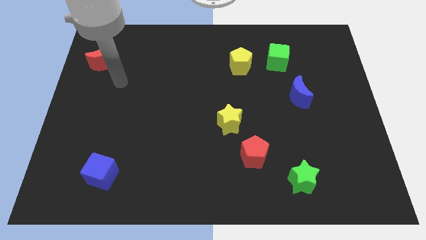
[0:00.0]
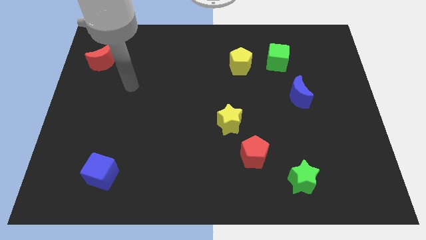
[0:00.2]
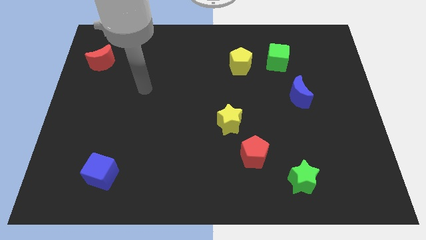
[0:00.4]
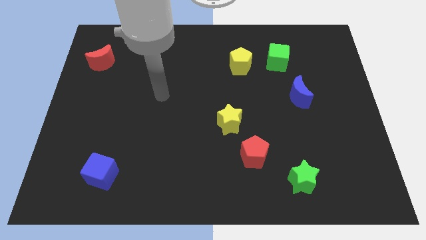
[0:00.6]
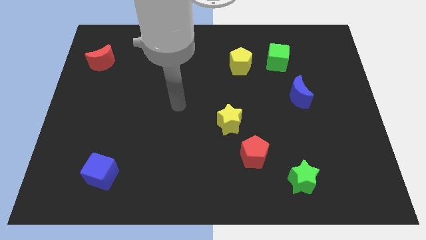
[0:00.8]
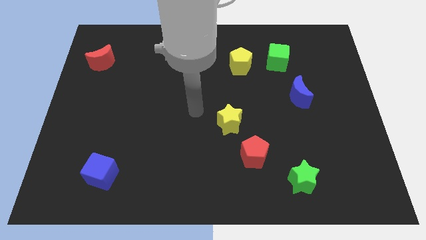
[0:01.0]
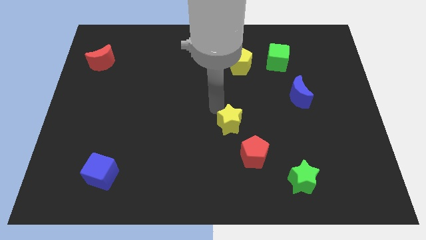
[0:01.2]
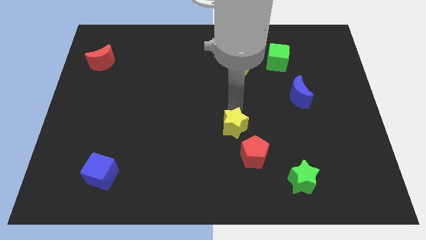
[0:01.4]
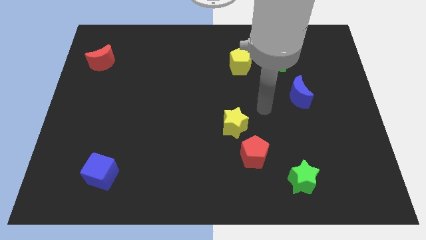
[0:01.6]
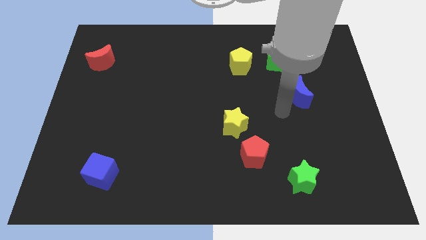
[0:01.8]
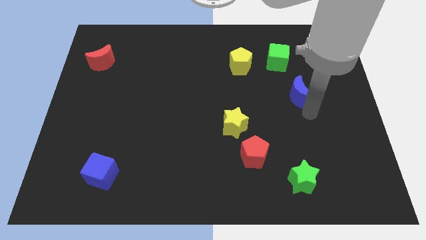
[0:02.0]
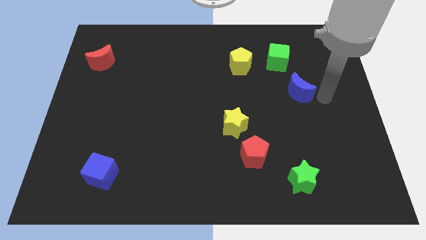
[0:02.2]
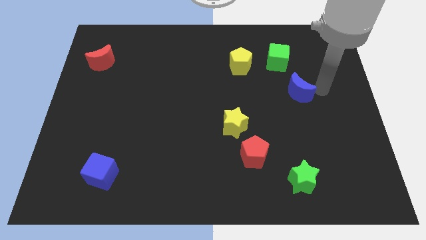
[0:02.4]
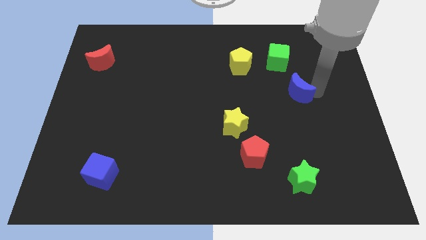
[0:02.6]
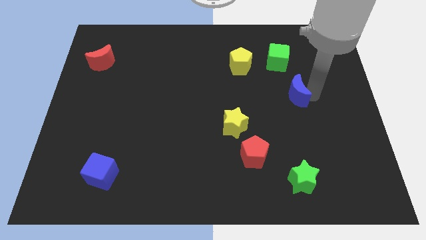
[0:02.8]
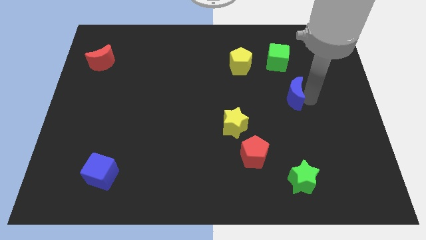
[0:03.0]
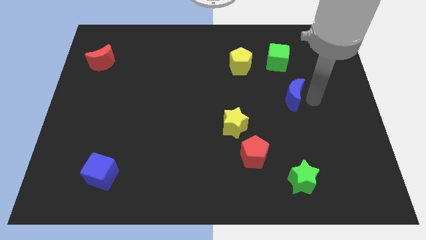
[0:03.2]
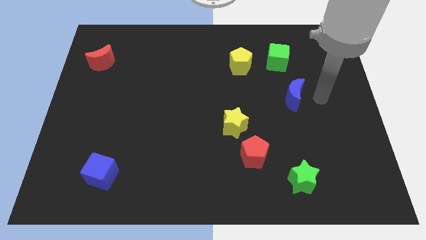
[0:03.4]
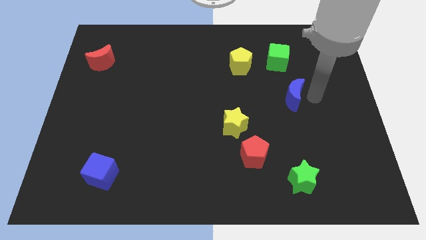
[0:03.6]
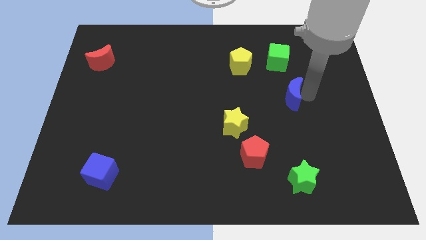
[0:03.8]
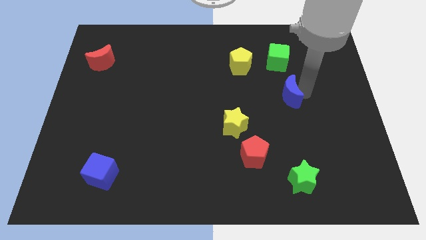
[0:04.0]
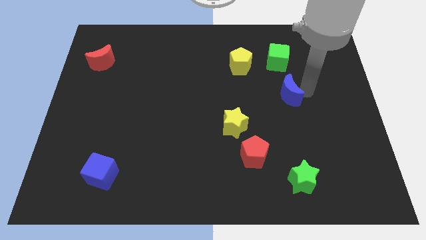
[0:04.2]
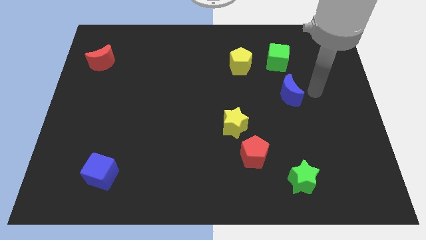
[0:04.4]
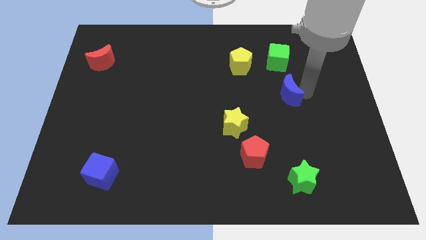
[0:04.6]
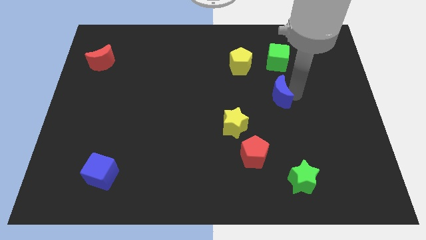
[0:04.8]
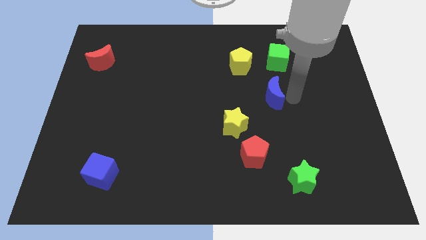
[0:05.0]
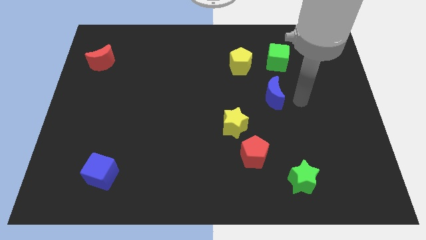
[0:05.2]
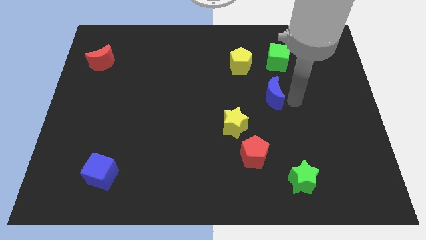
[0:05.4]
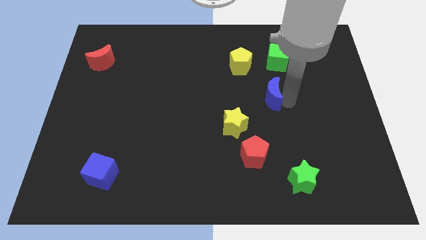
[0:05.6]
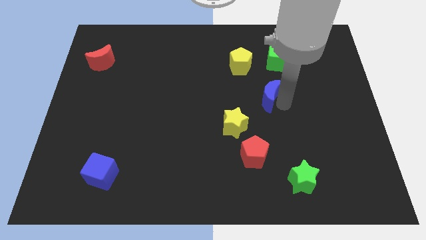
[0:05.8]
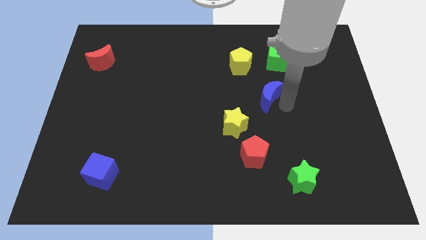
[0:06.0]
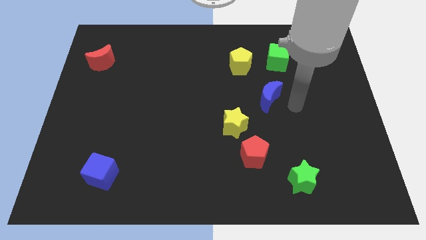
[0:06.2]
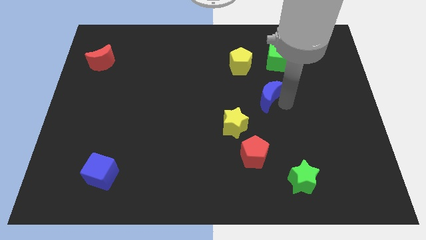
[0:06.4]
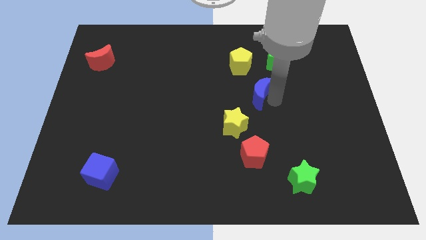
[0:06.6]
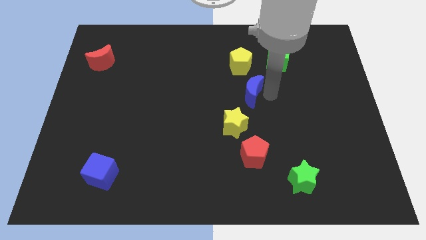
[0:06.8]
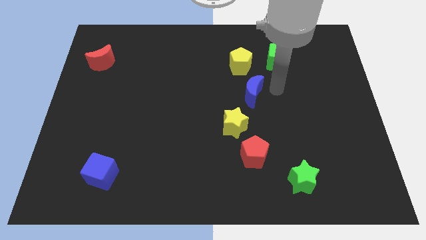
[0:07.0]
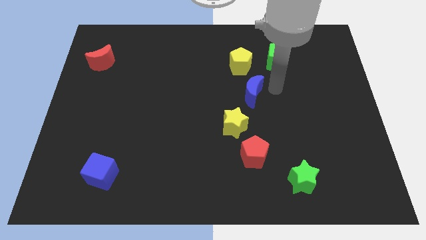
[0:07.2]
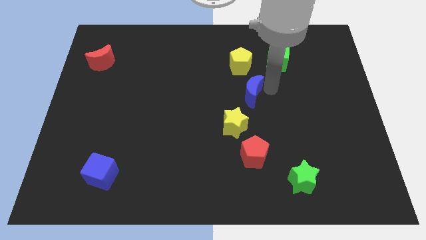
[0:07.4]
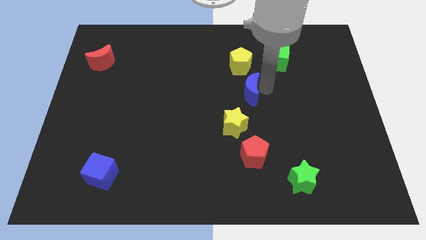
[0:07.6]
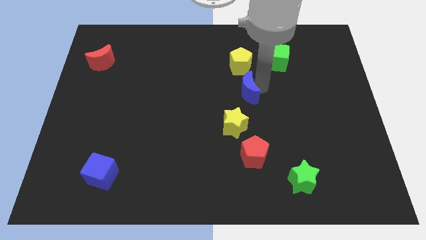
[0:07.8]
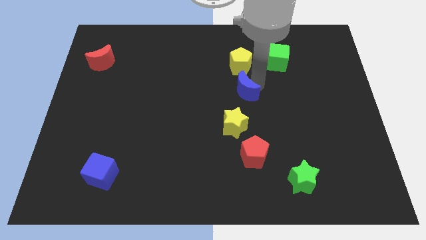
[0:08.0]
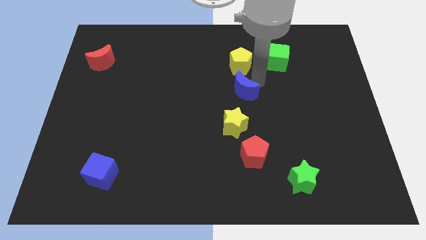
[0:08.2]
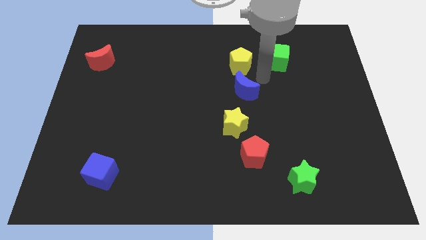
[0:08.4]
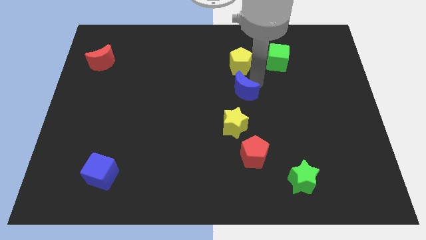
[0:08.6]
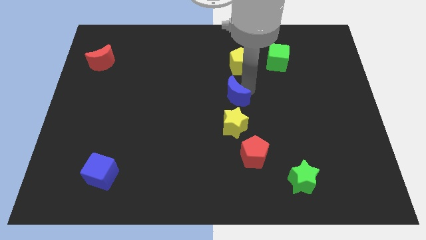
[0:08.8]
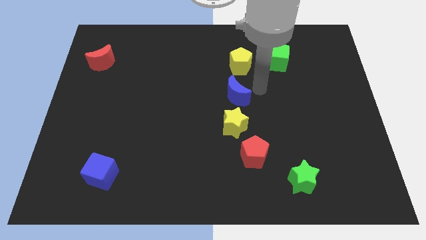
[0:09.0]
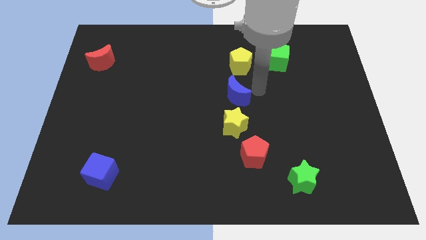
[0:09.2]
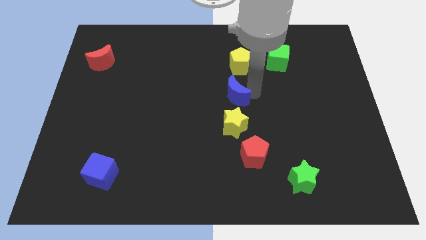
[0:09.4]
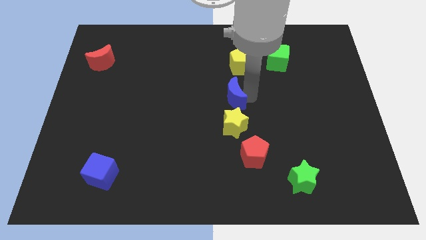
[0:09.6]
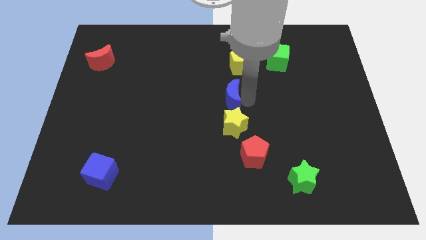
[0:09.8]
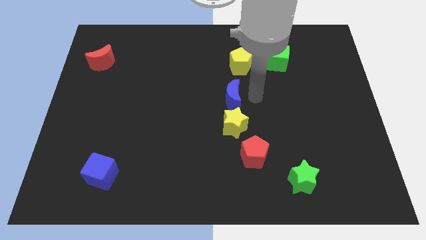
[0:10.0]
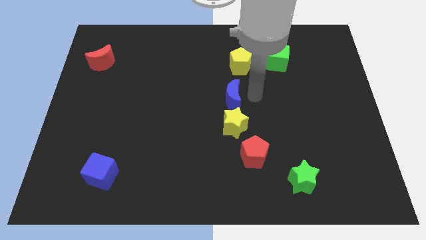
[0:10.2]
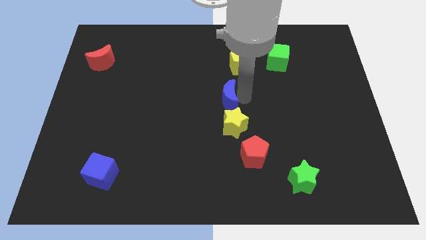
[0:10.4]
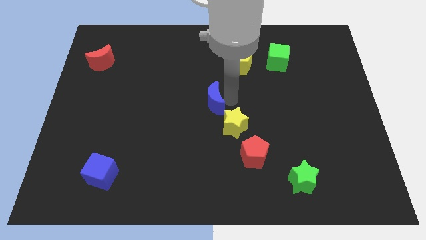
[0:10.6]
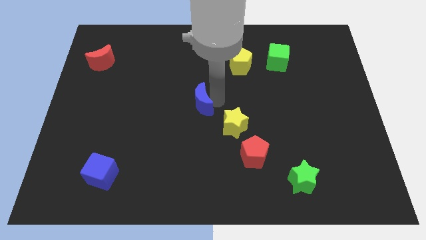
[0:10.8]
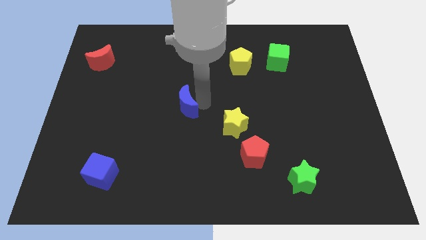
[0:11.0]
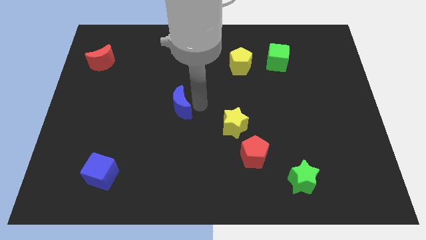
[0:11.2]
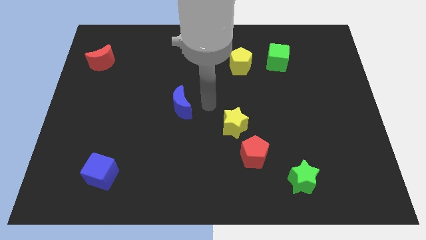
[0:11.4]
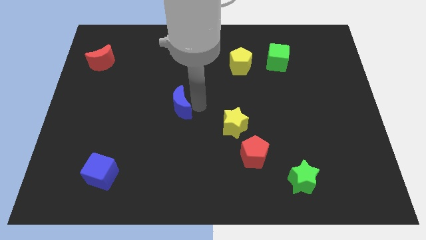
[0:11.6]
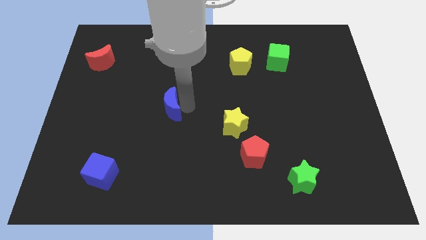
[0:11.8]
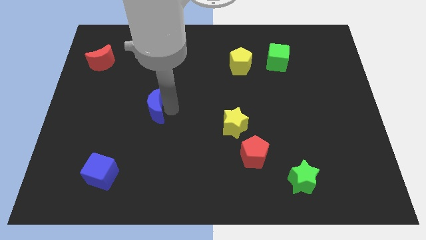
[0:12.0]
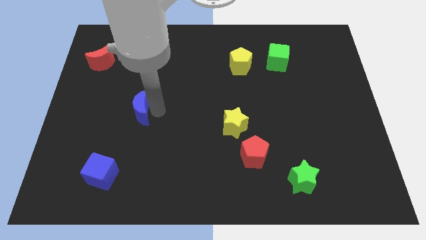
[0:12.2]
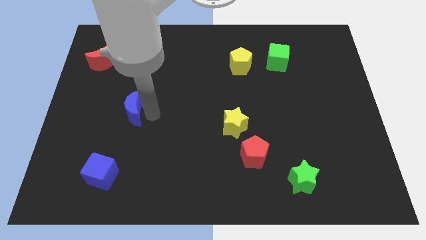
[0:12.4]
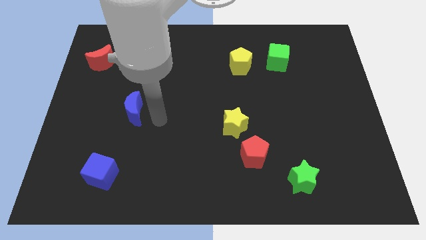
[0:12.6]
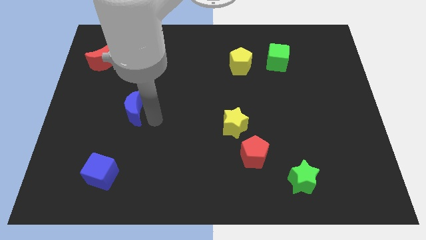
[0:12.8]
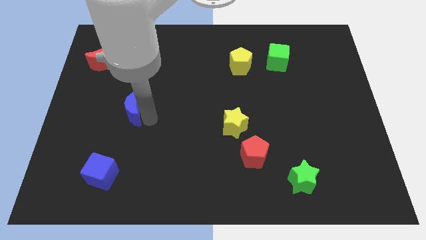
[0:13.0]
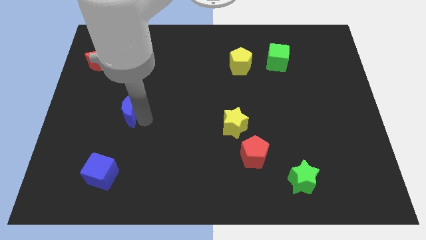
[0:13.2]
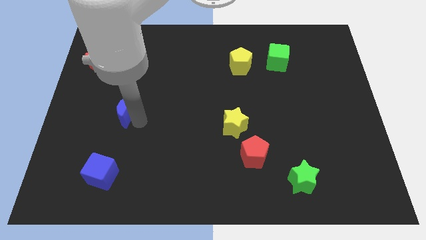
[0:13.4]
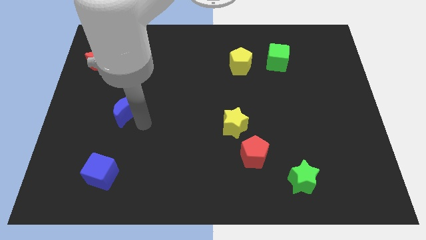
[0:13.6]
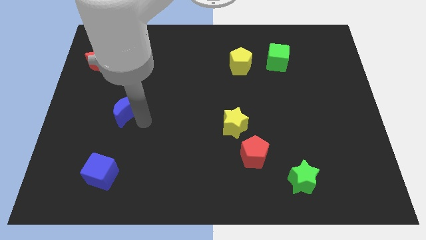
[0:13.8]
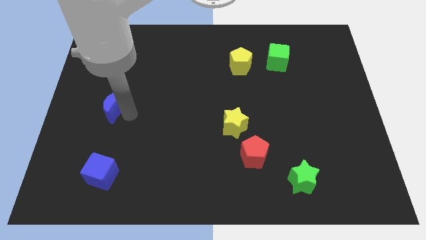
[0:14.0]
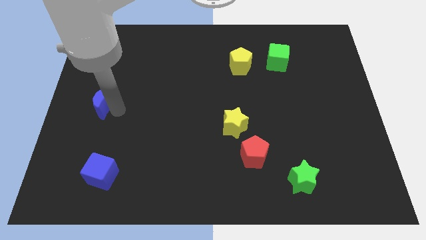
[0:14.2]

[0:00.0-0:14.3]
move the blue moon to the center left
